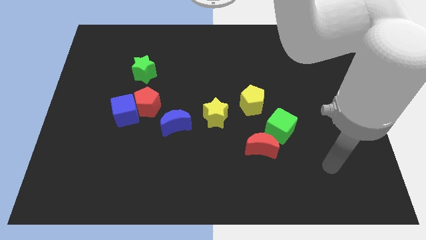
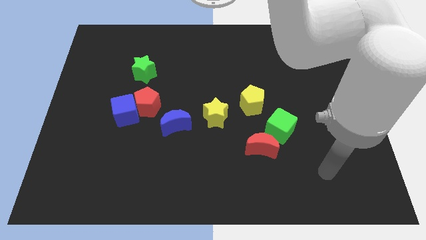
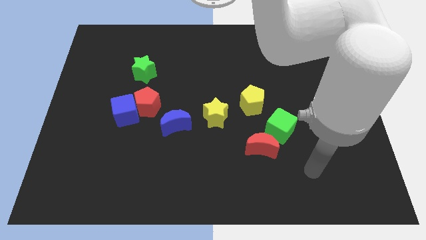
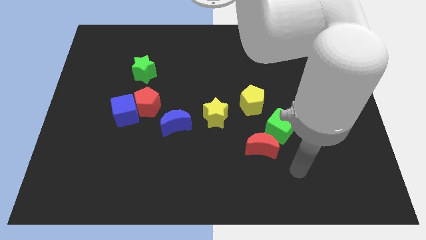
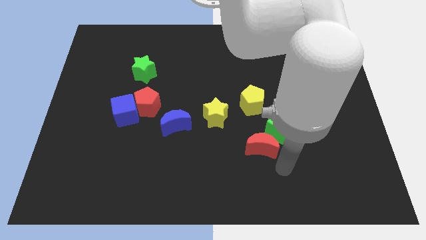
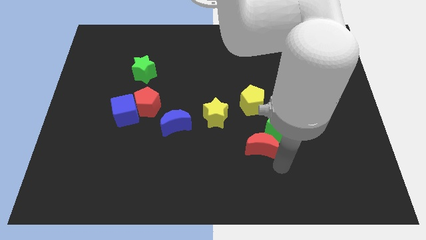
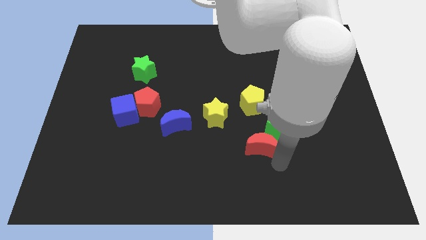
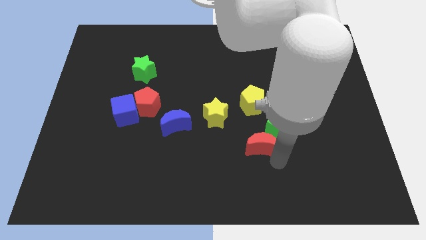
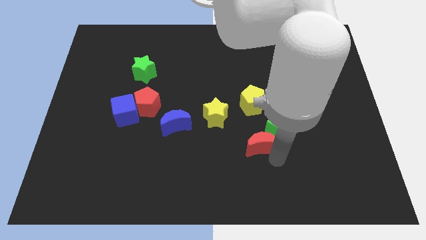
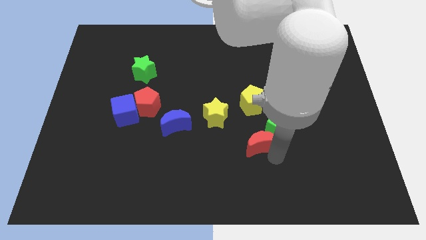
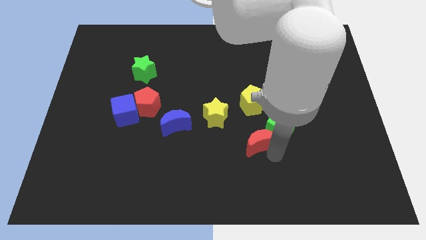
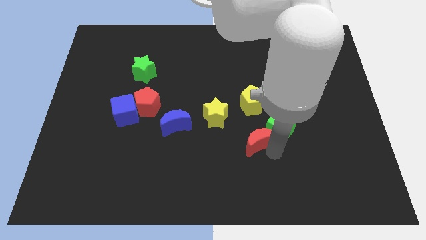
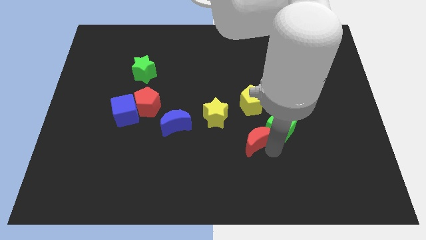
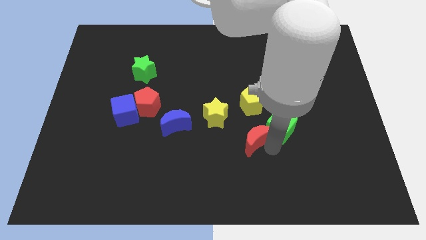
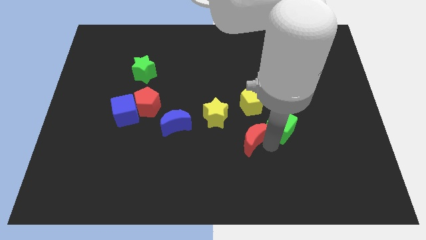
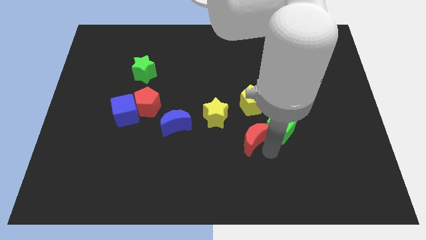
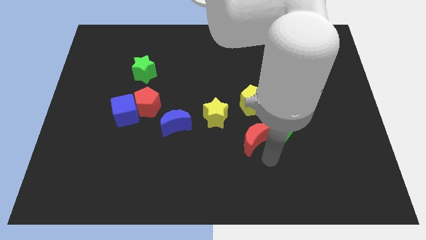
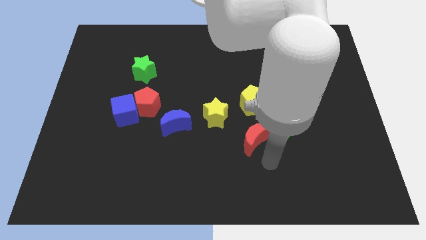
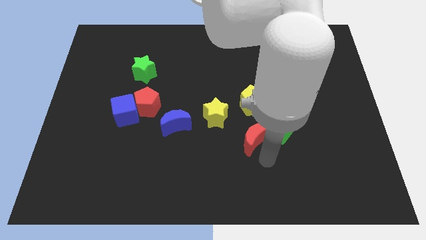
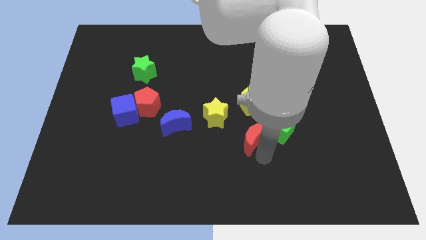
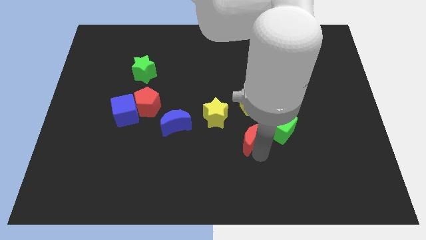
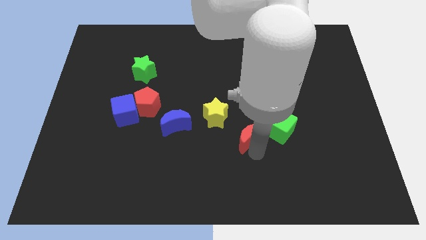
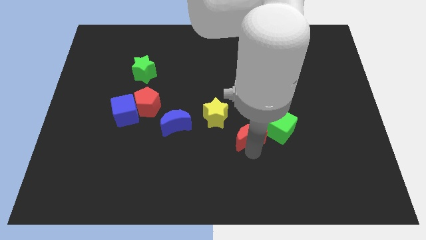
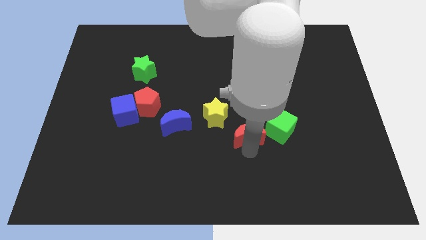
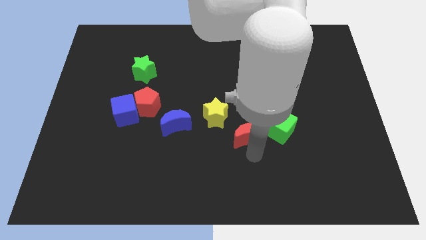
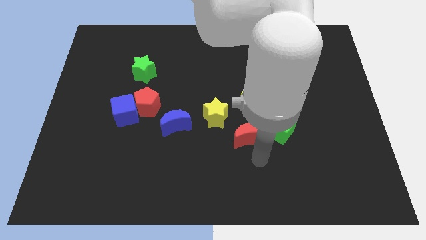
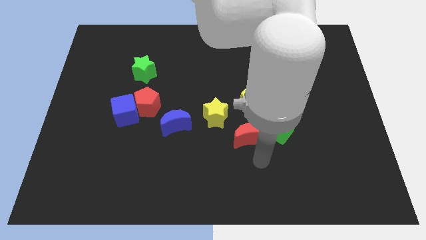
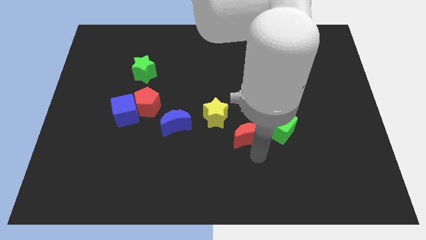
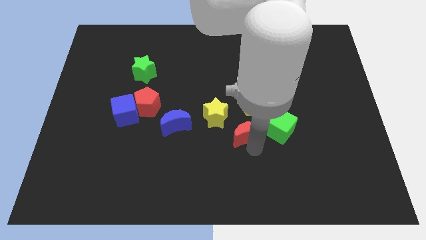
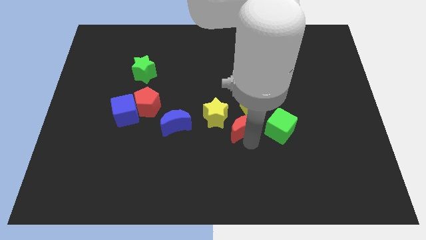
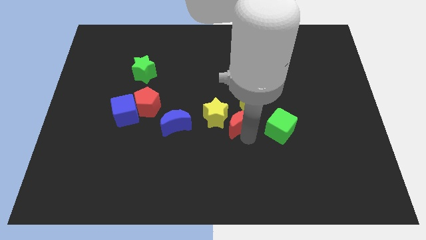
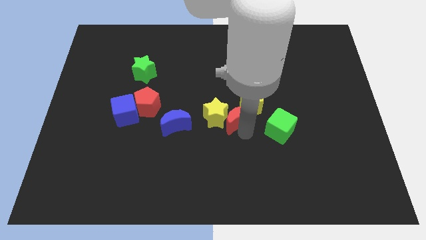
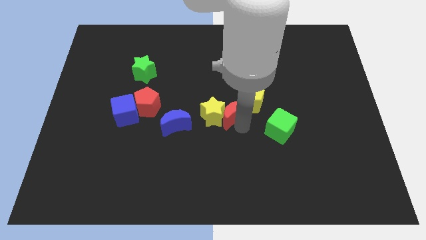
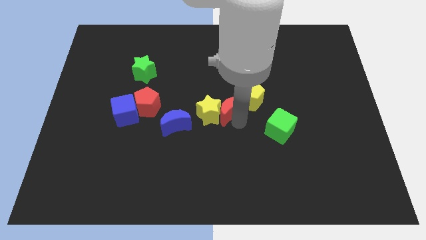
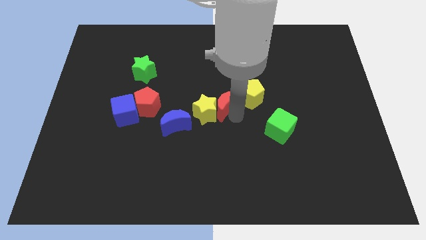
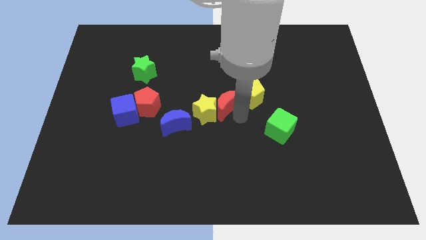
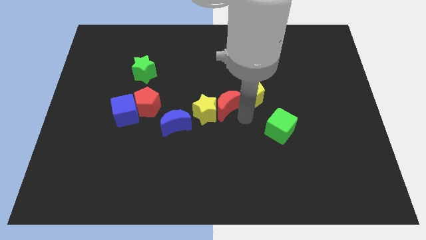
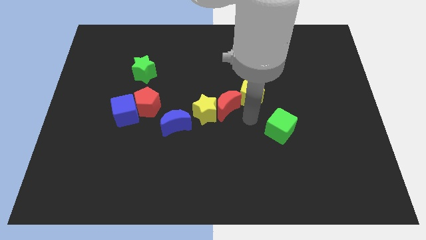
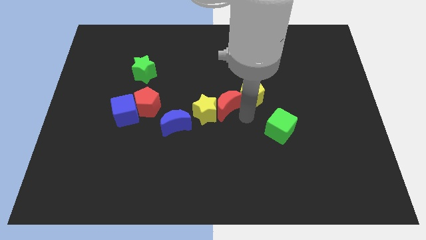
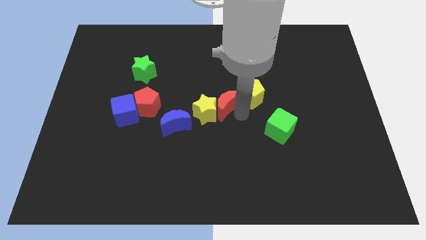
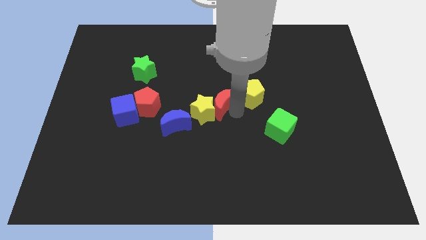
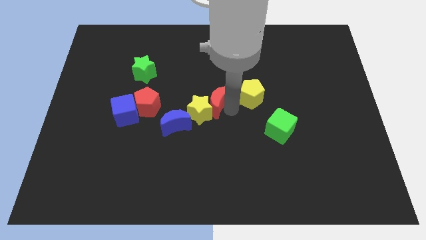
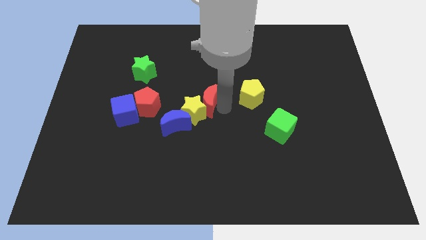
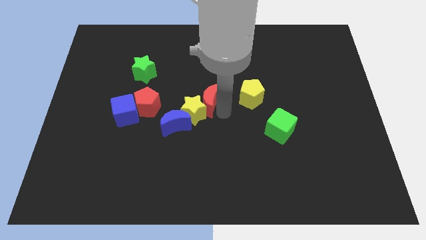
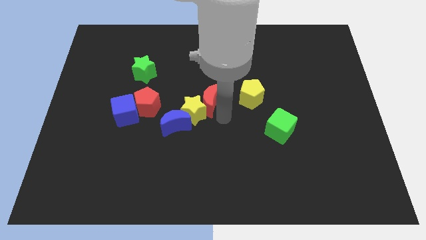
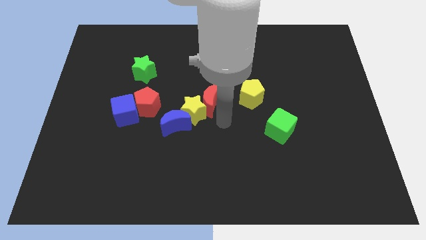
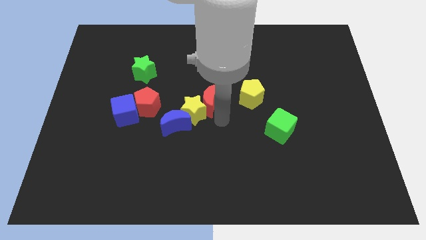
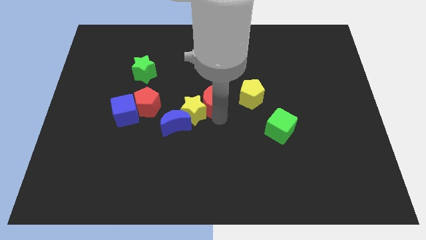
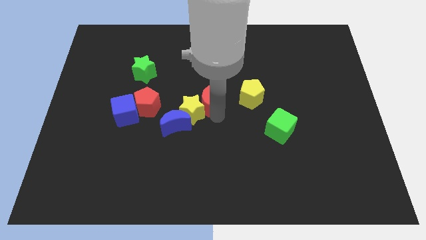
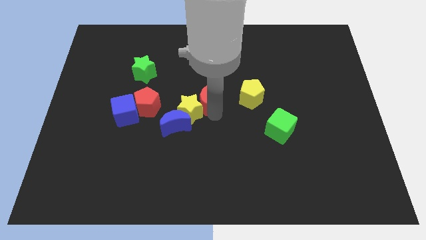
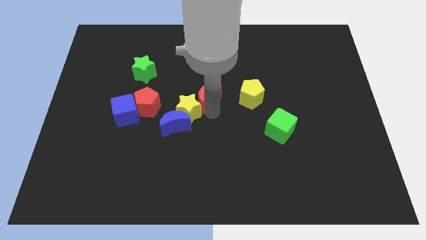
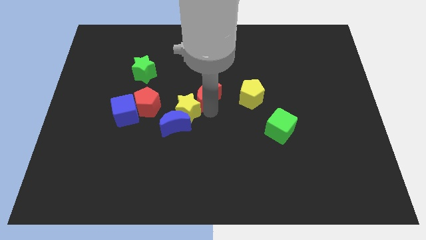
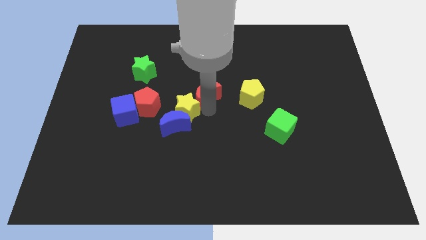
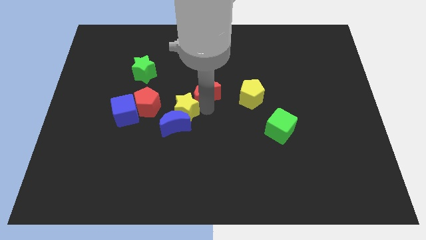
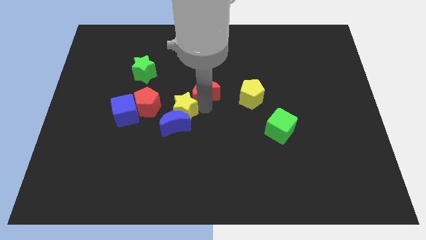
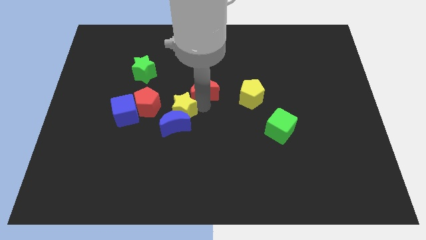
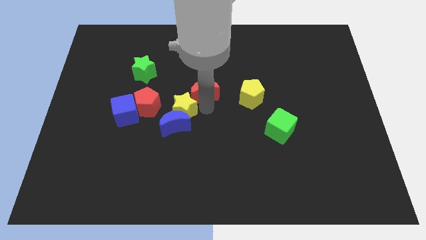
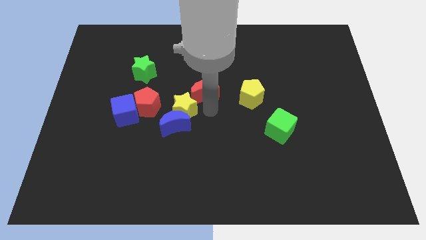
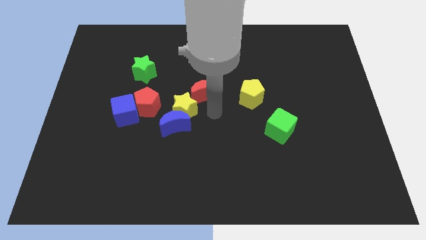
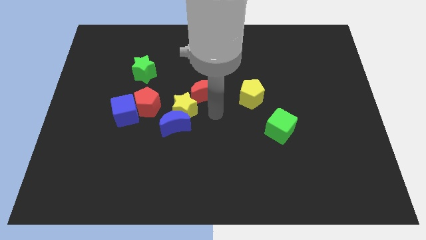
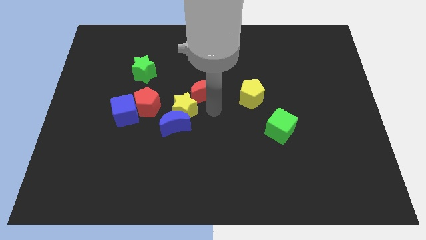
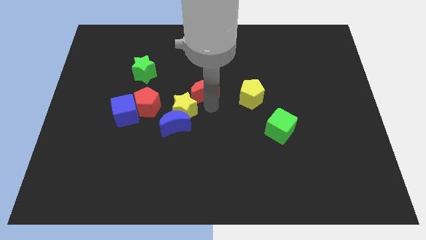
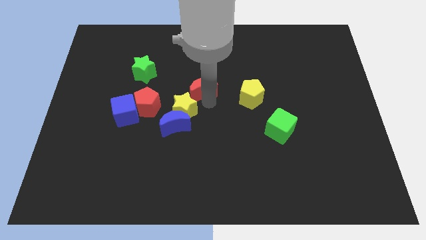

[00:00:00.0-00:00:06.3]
move the red moon upwards and then to the left

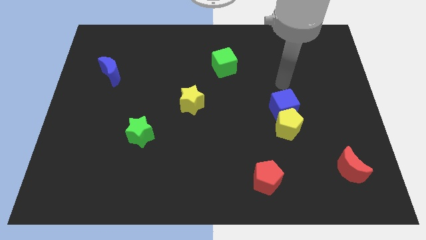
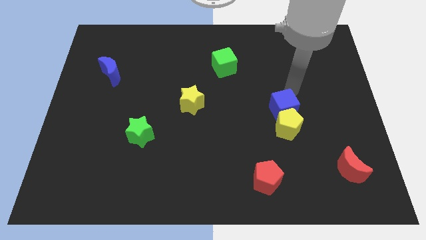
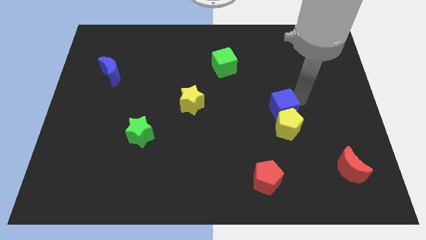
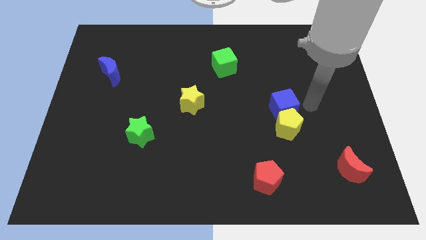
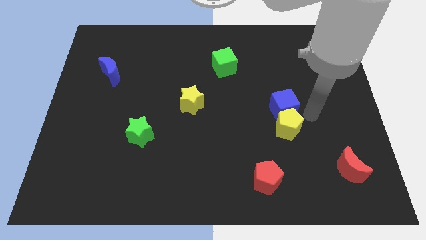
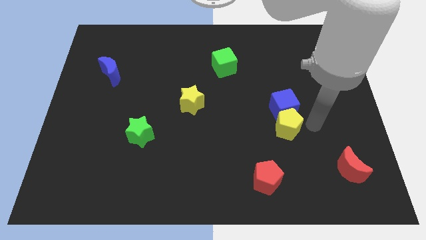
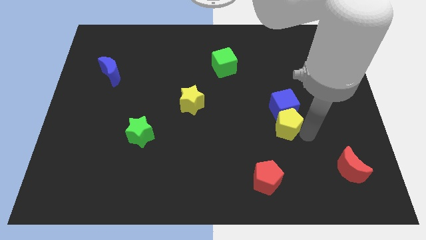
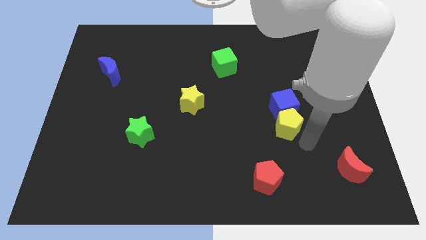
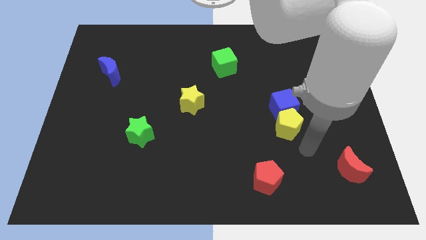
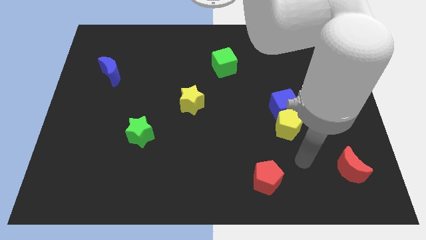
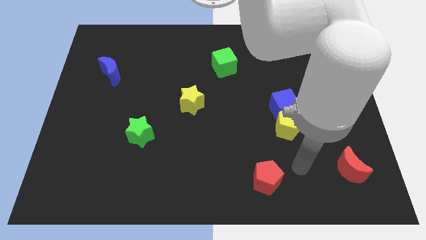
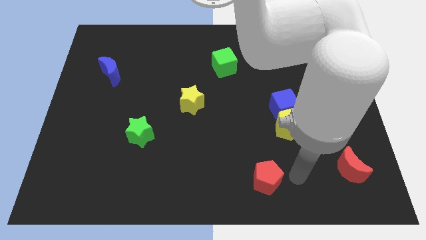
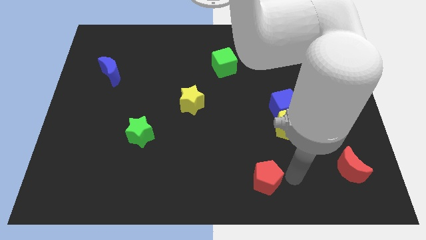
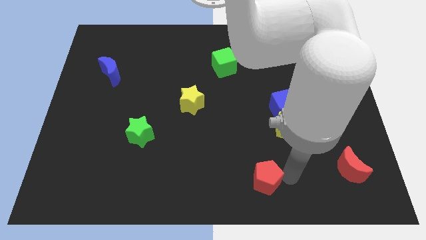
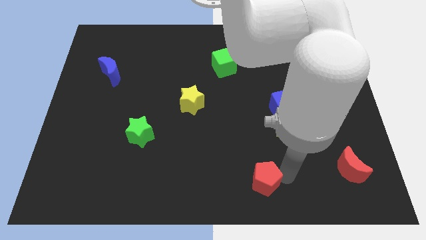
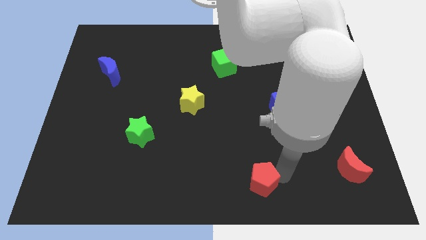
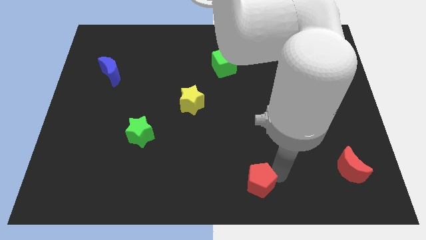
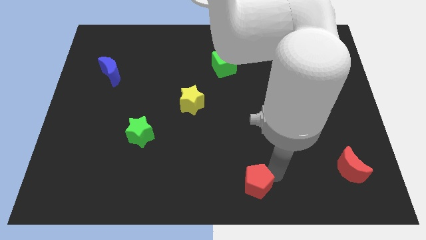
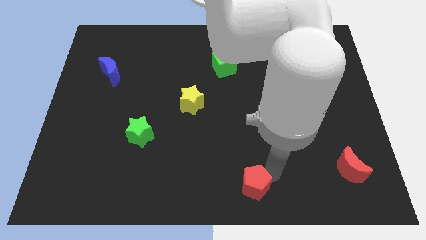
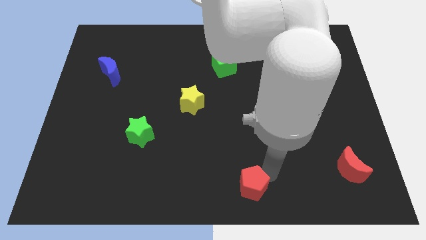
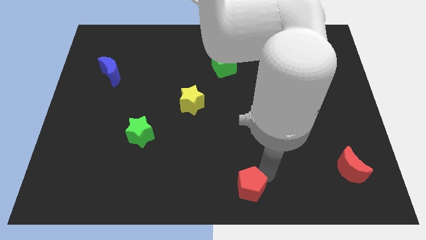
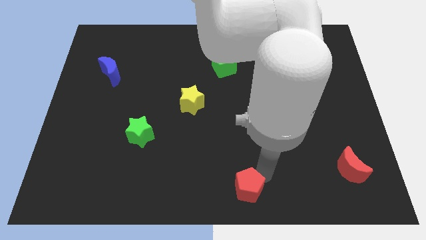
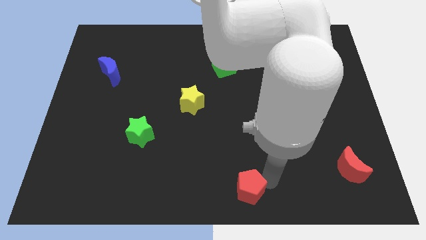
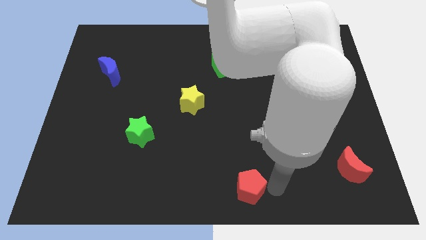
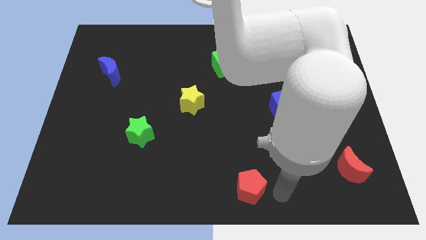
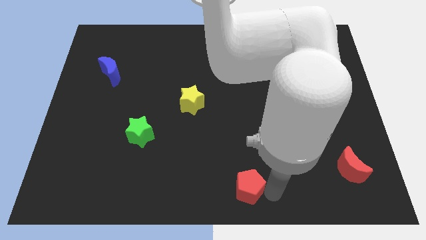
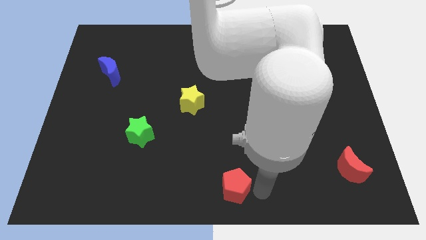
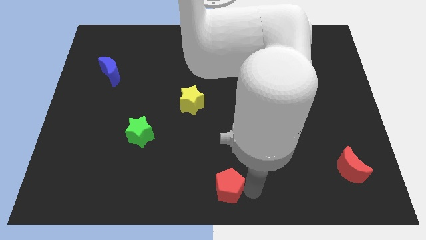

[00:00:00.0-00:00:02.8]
move the red pentagon slightly to the left
